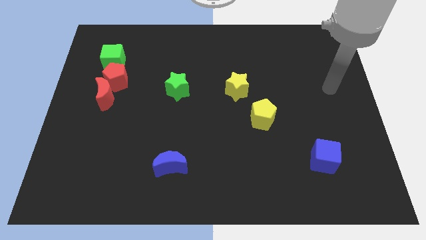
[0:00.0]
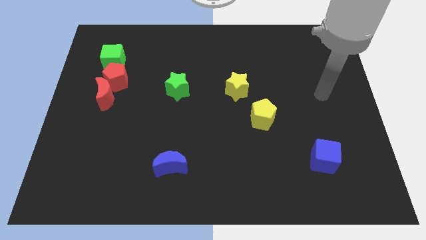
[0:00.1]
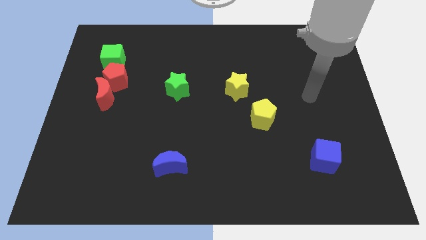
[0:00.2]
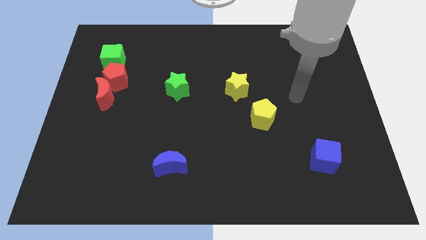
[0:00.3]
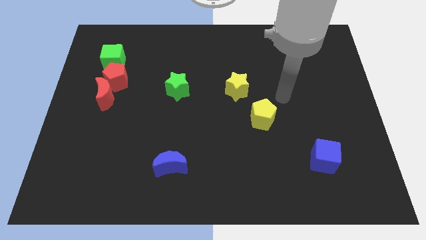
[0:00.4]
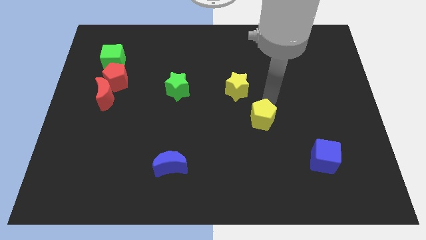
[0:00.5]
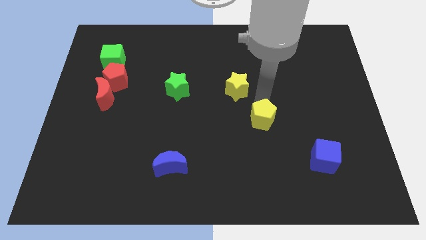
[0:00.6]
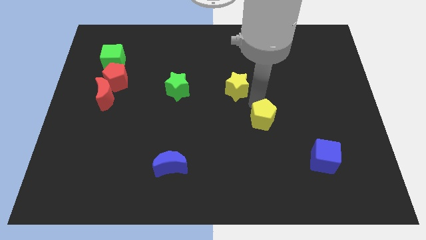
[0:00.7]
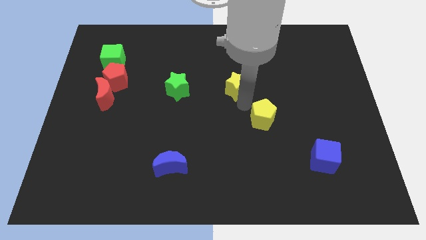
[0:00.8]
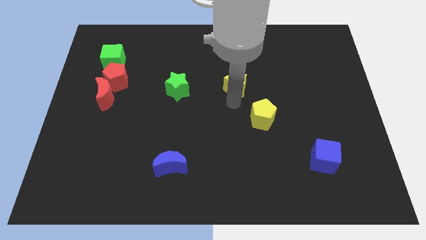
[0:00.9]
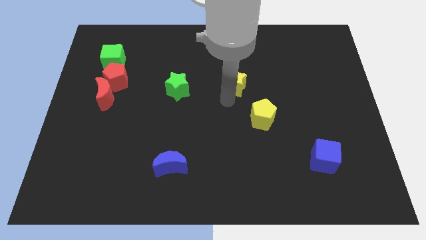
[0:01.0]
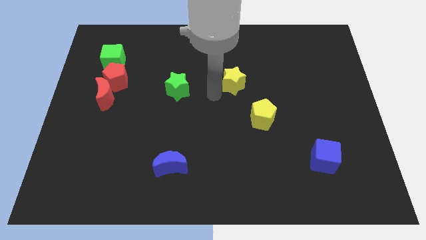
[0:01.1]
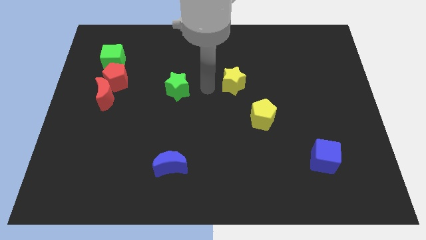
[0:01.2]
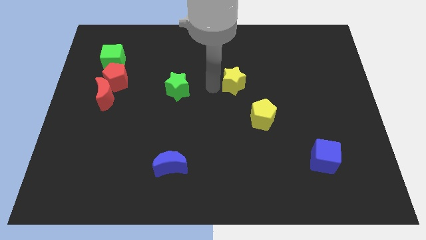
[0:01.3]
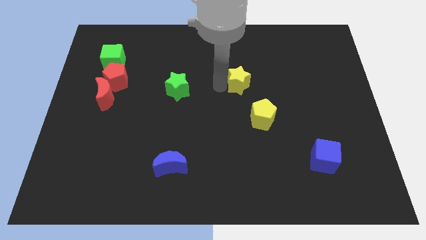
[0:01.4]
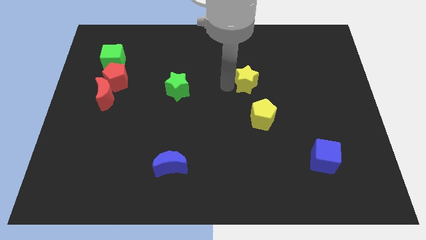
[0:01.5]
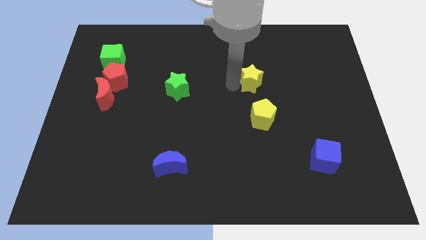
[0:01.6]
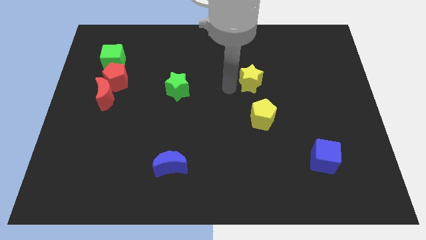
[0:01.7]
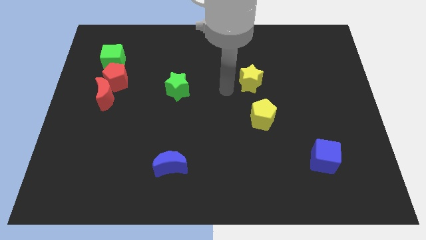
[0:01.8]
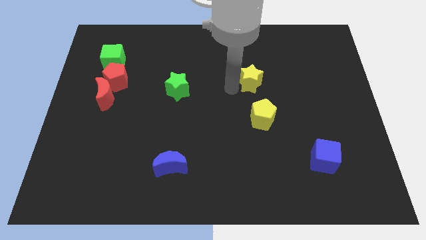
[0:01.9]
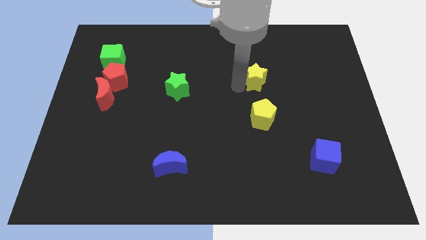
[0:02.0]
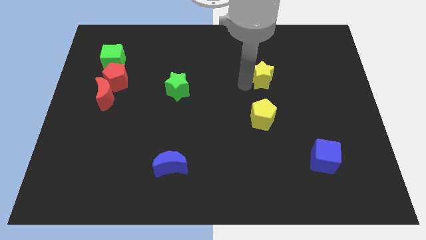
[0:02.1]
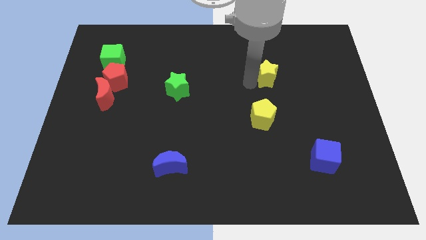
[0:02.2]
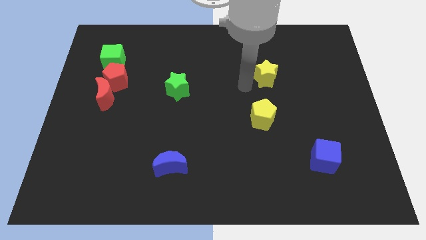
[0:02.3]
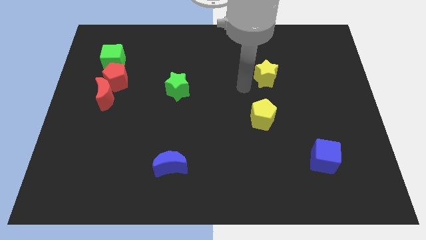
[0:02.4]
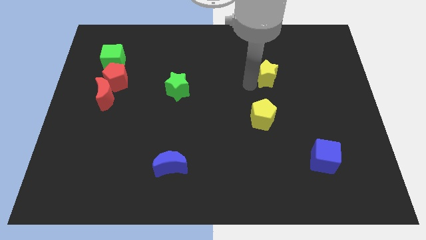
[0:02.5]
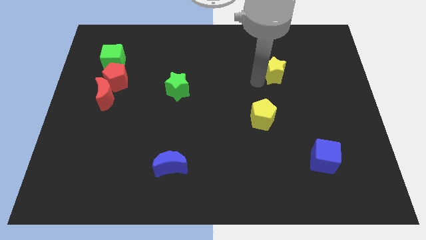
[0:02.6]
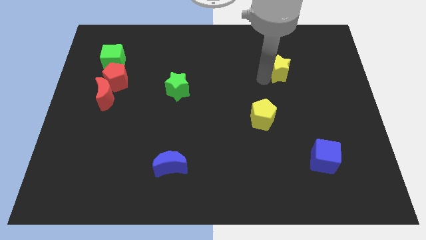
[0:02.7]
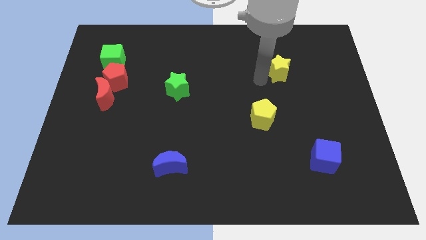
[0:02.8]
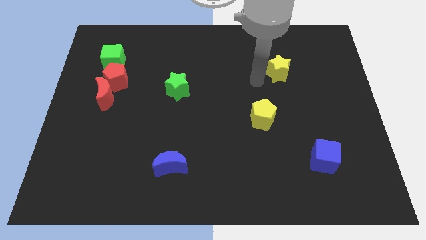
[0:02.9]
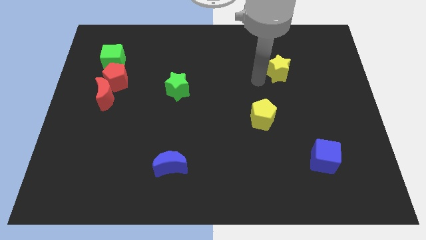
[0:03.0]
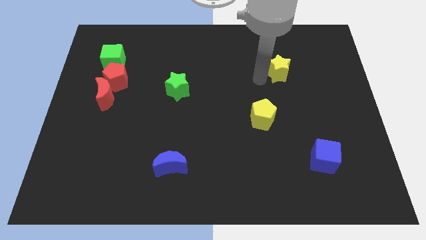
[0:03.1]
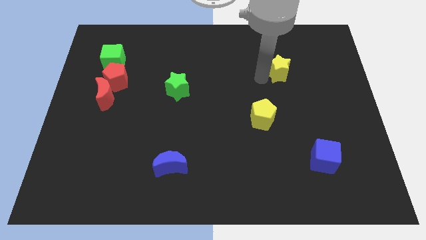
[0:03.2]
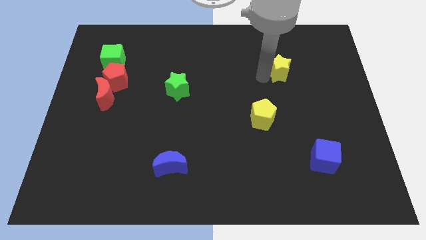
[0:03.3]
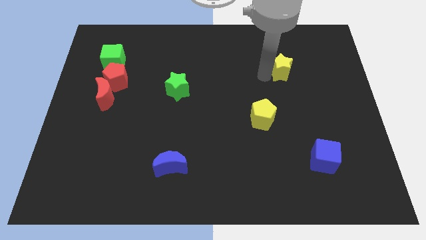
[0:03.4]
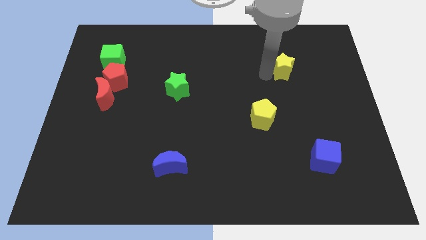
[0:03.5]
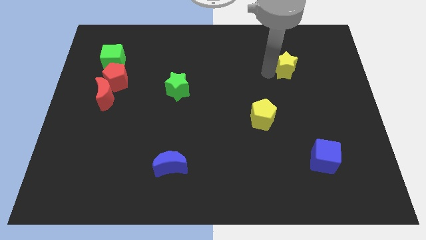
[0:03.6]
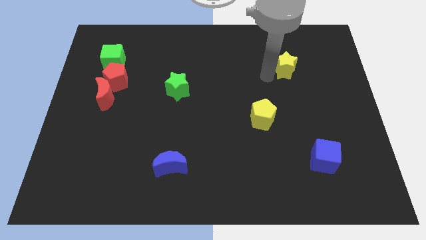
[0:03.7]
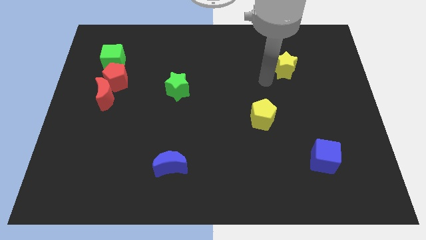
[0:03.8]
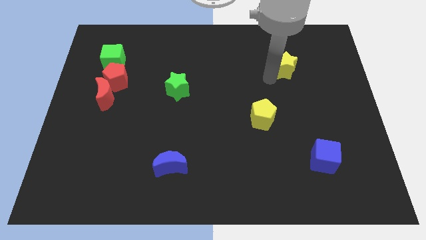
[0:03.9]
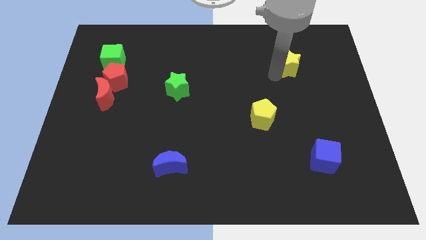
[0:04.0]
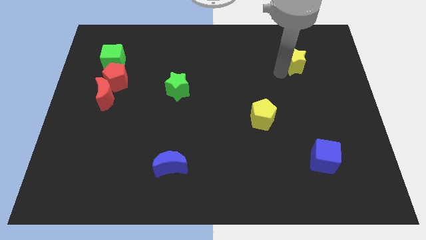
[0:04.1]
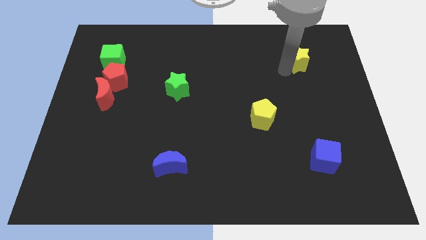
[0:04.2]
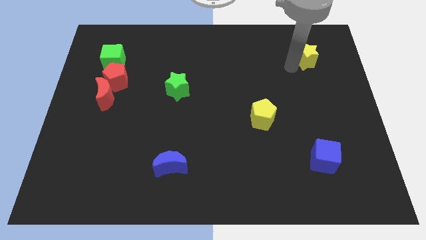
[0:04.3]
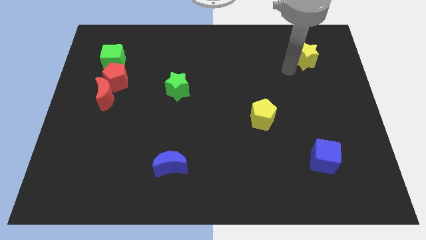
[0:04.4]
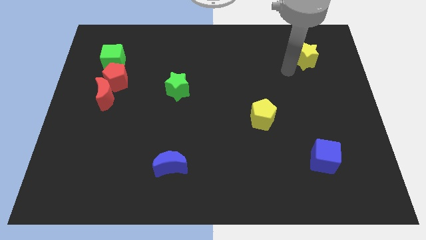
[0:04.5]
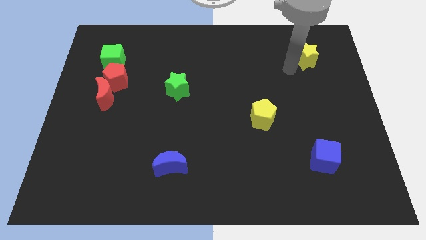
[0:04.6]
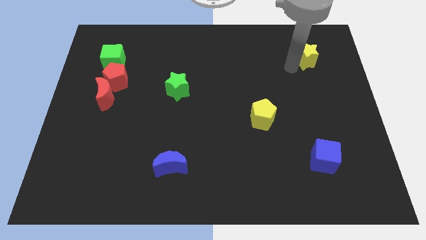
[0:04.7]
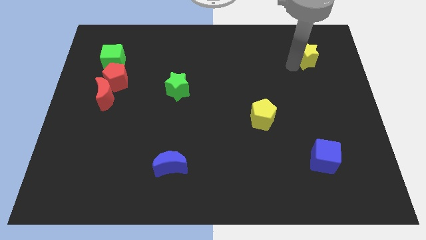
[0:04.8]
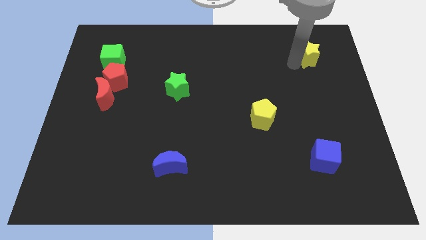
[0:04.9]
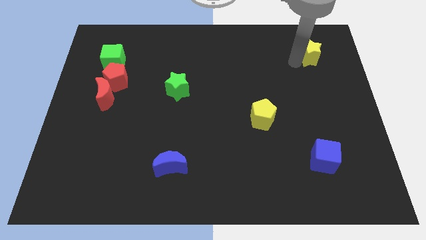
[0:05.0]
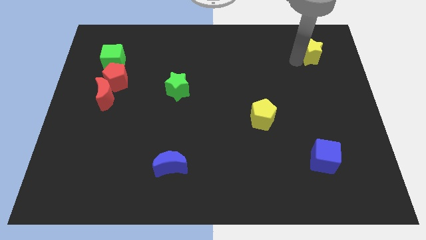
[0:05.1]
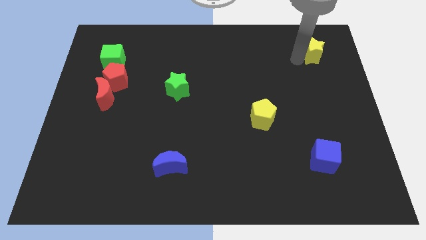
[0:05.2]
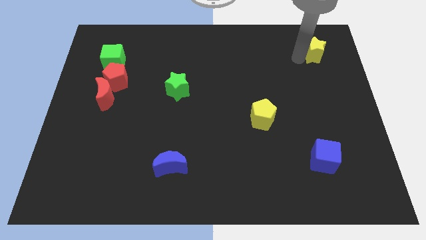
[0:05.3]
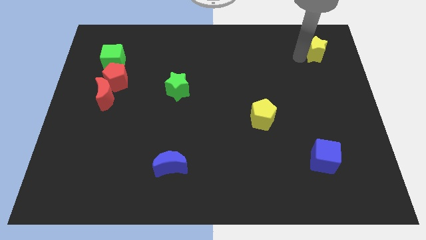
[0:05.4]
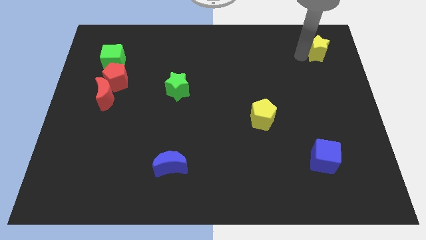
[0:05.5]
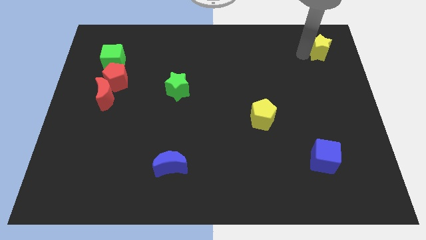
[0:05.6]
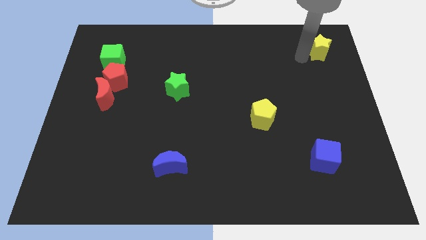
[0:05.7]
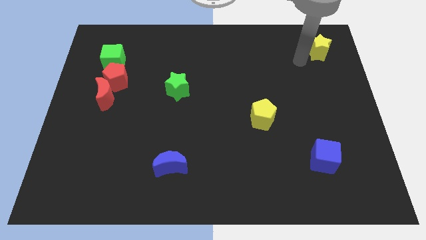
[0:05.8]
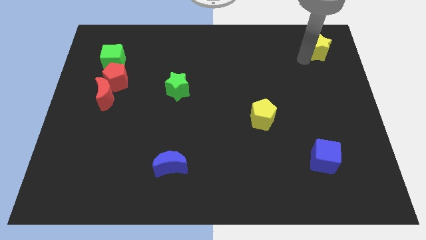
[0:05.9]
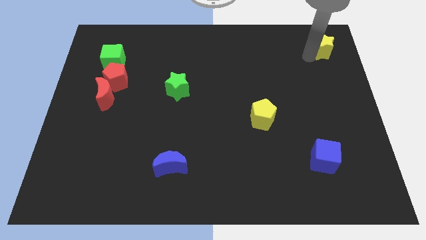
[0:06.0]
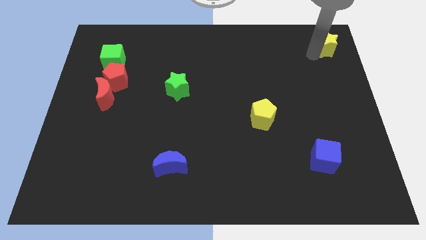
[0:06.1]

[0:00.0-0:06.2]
put the yellow star to the top right corner
